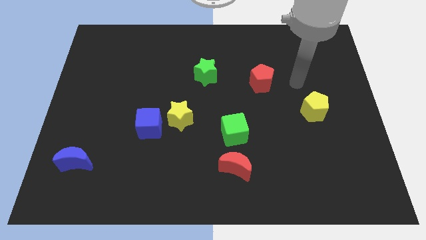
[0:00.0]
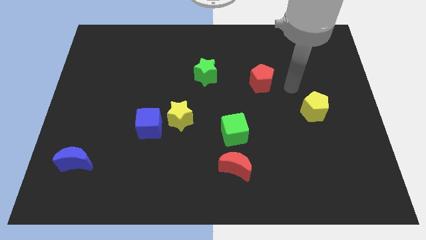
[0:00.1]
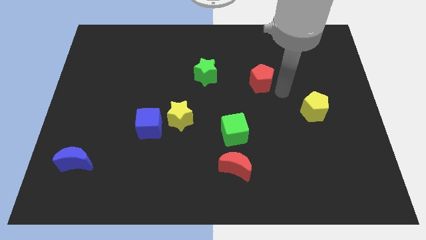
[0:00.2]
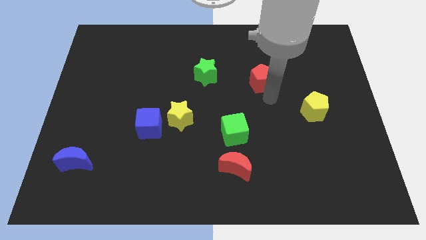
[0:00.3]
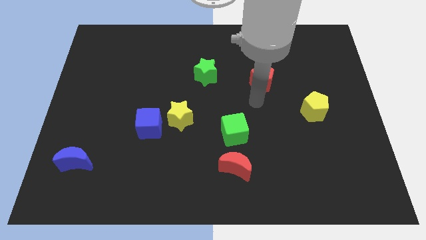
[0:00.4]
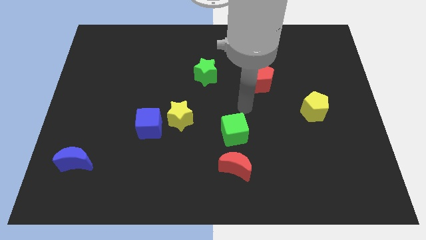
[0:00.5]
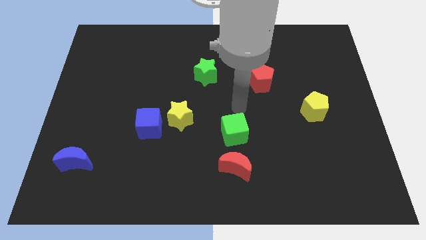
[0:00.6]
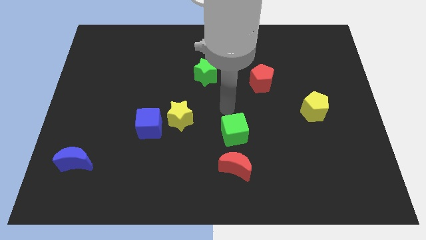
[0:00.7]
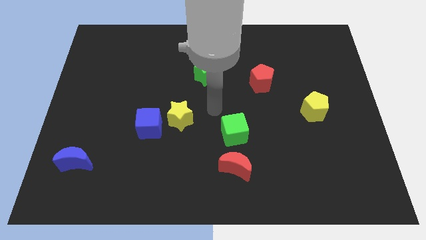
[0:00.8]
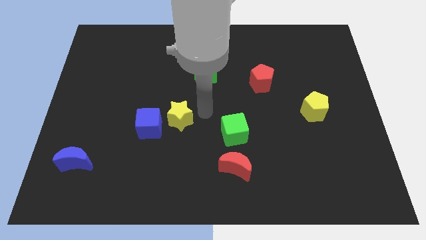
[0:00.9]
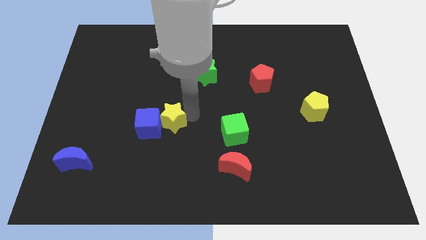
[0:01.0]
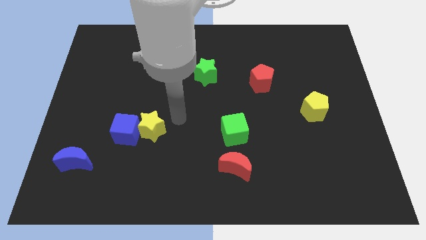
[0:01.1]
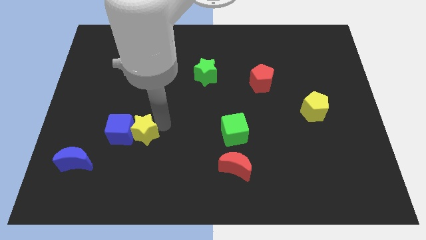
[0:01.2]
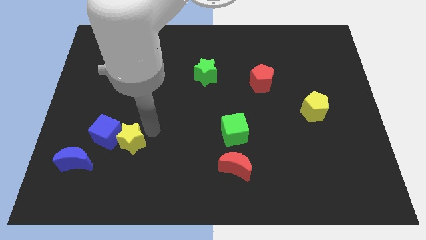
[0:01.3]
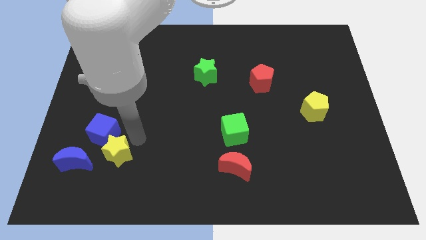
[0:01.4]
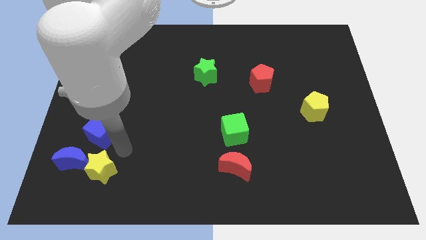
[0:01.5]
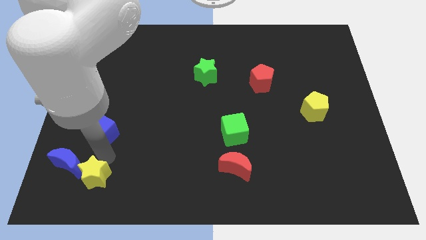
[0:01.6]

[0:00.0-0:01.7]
pull the blue cube apart from the yellow star

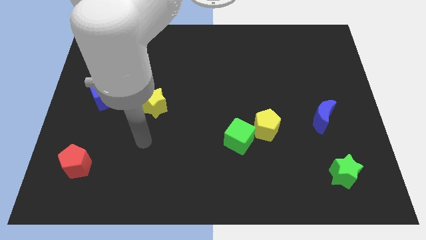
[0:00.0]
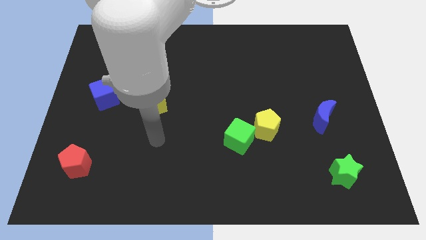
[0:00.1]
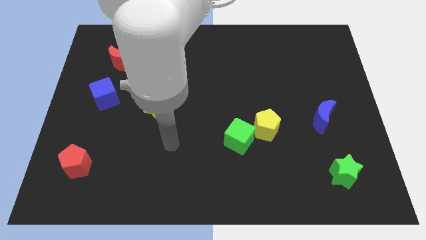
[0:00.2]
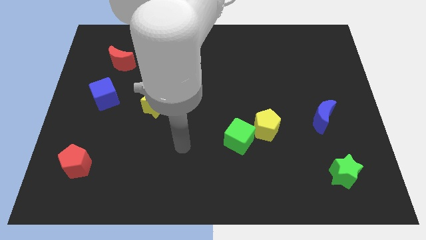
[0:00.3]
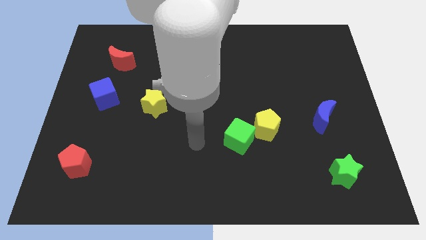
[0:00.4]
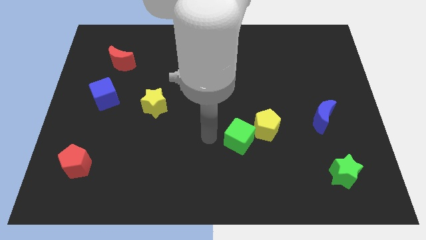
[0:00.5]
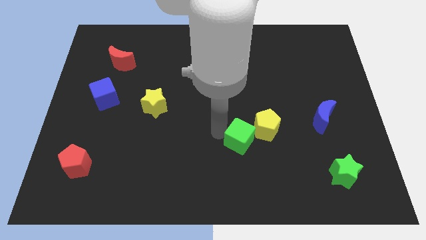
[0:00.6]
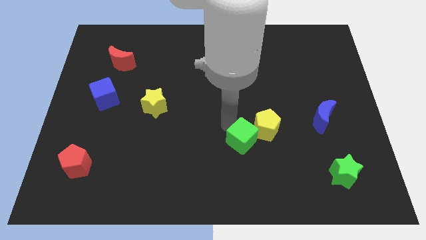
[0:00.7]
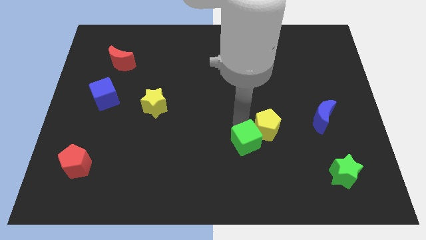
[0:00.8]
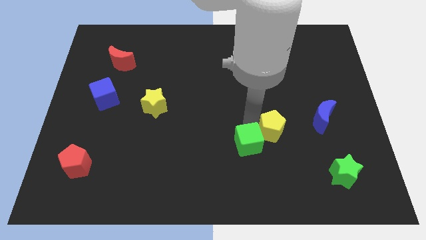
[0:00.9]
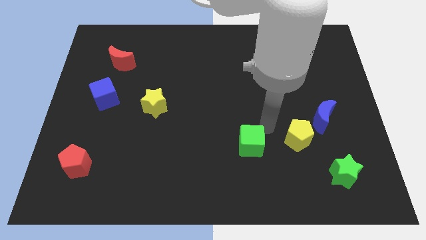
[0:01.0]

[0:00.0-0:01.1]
separate the green cube from the yellow pentagon

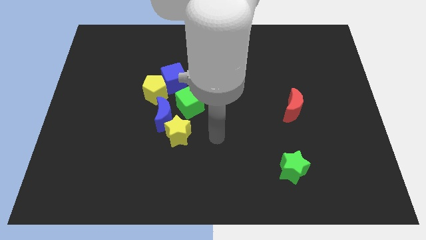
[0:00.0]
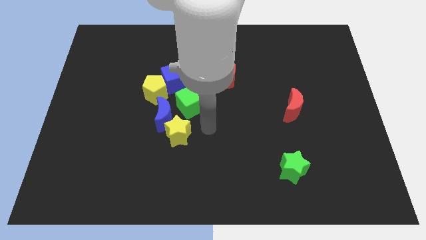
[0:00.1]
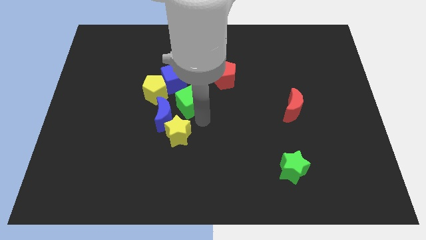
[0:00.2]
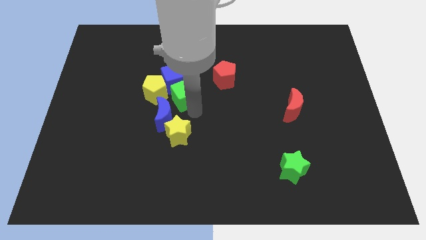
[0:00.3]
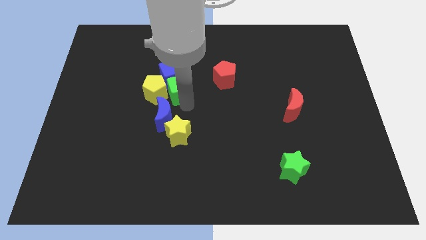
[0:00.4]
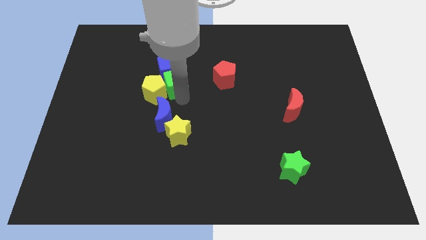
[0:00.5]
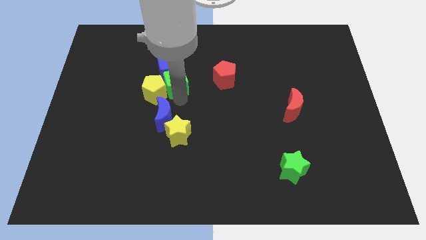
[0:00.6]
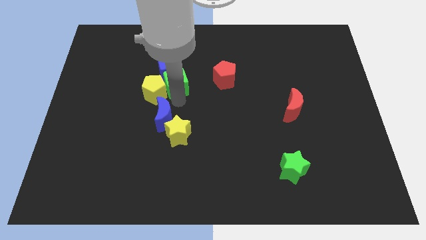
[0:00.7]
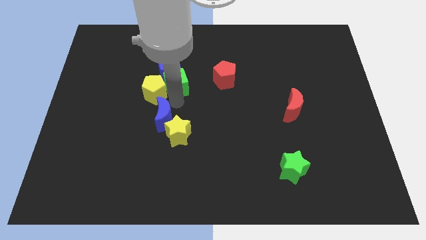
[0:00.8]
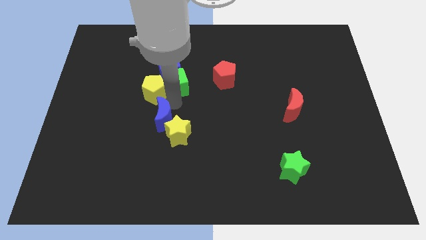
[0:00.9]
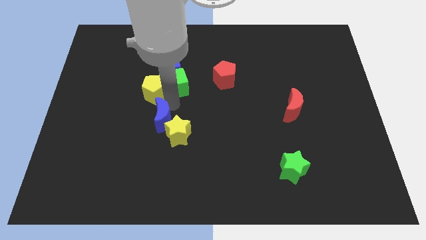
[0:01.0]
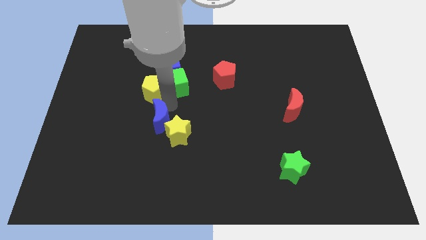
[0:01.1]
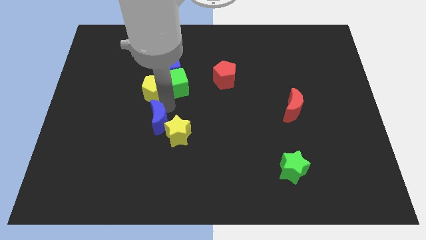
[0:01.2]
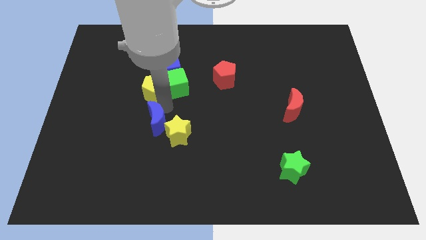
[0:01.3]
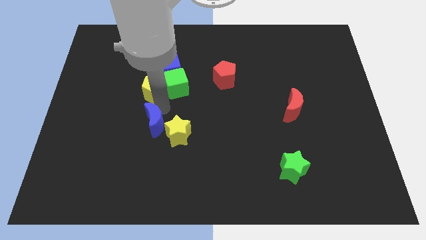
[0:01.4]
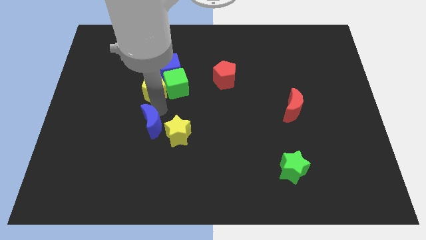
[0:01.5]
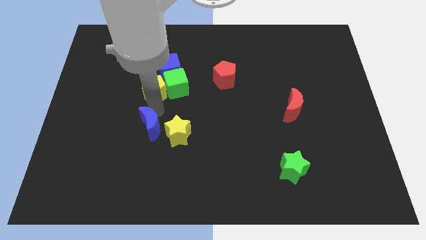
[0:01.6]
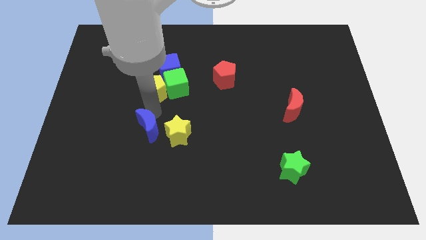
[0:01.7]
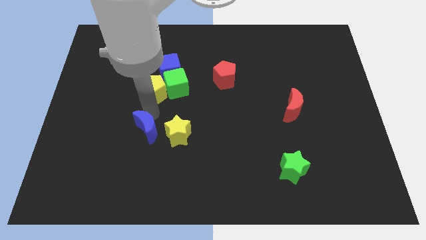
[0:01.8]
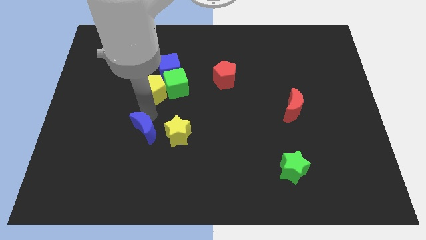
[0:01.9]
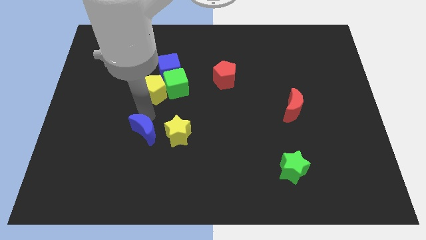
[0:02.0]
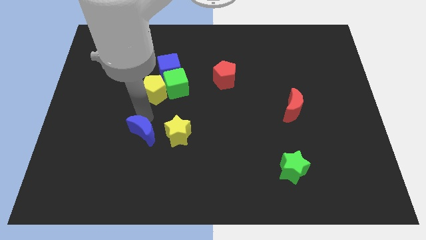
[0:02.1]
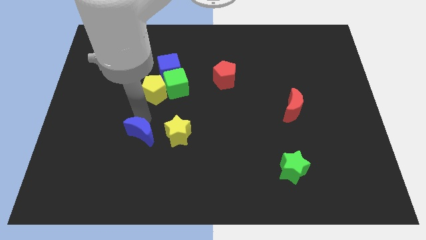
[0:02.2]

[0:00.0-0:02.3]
move the blue moon away from the yellow star, green cube, and yellow pentagon

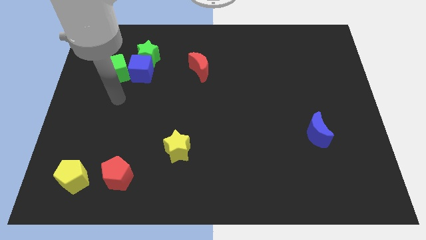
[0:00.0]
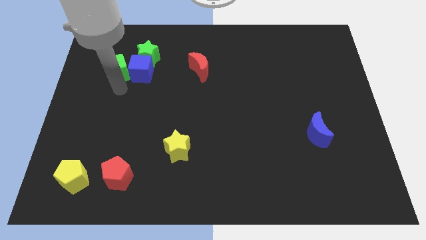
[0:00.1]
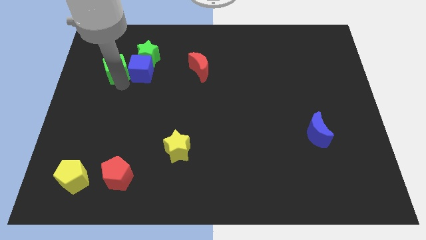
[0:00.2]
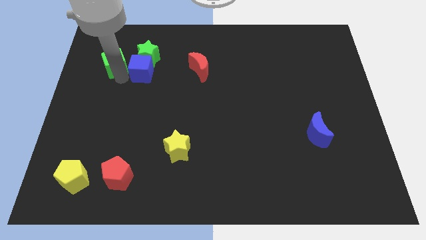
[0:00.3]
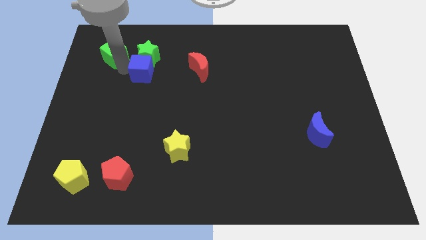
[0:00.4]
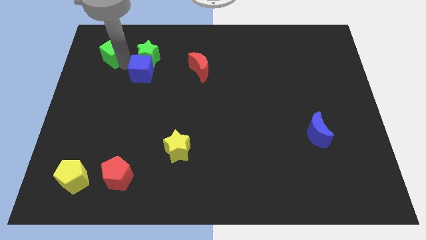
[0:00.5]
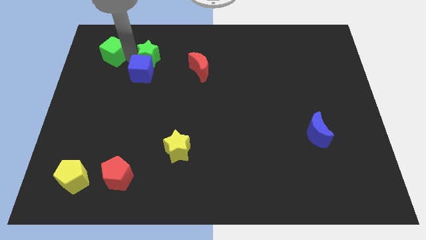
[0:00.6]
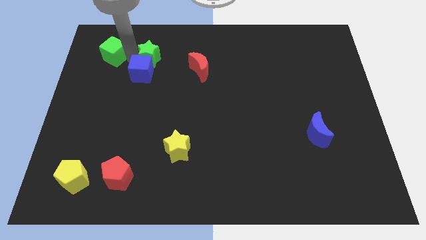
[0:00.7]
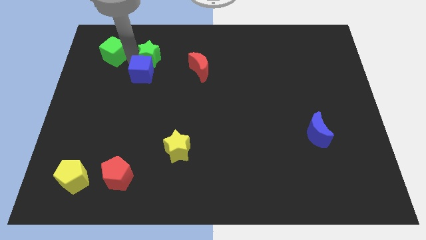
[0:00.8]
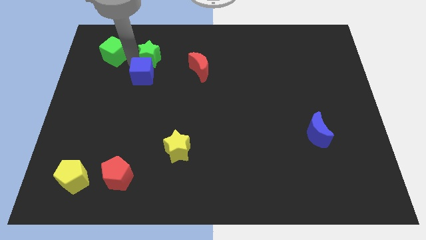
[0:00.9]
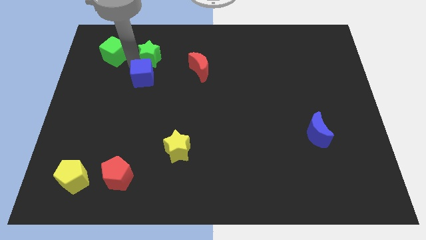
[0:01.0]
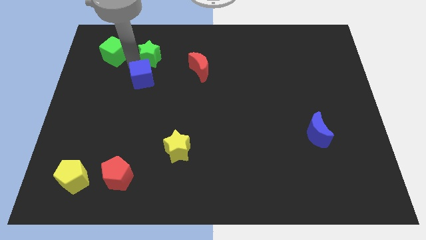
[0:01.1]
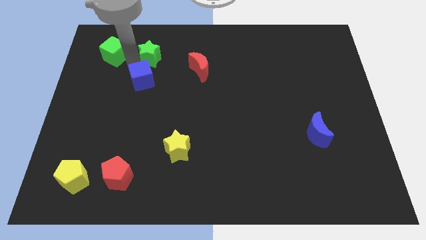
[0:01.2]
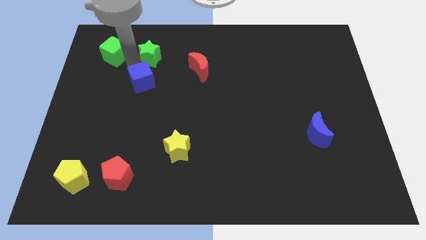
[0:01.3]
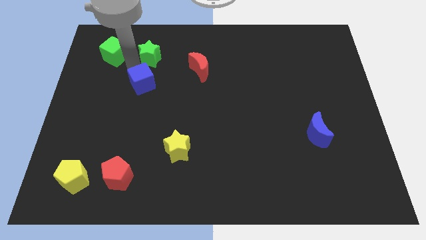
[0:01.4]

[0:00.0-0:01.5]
pull the blue cube apart from the green star and green cube

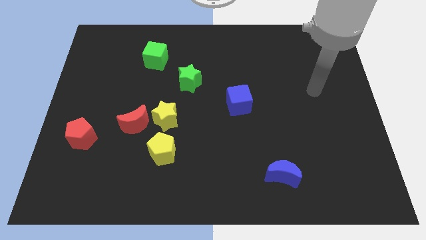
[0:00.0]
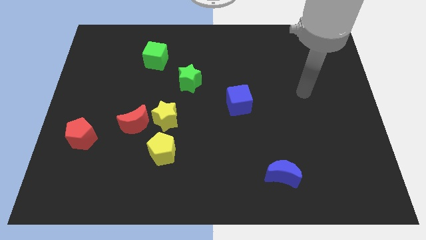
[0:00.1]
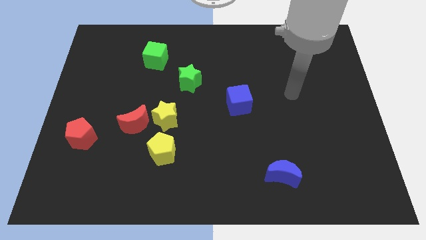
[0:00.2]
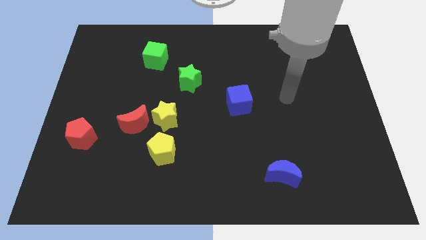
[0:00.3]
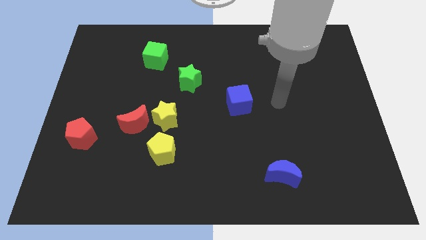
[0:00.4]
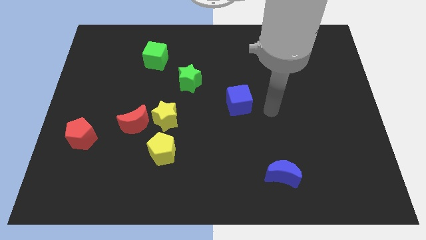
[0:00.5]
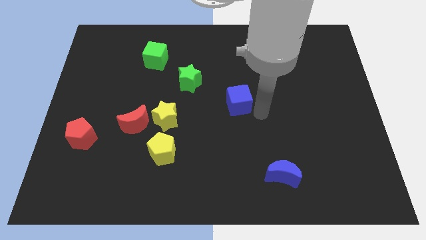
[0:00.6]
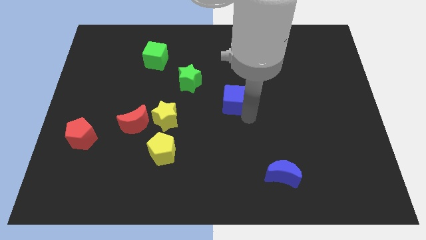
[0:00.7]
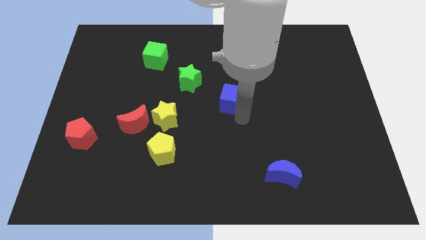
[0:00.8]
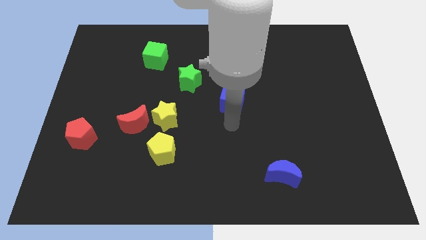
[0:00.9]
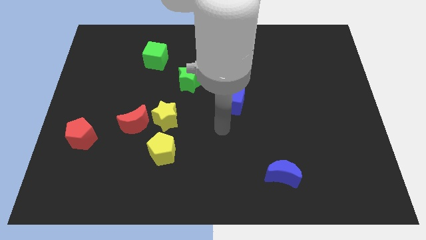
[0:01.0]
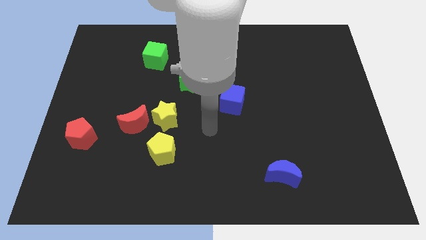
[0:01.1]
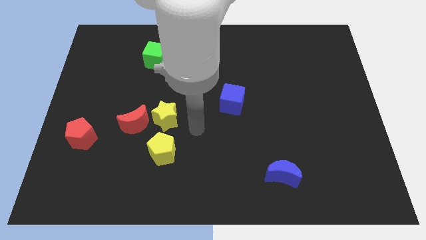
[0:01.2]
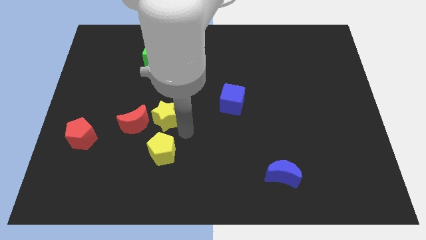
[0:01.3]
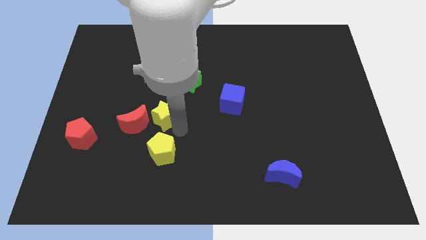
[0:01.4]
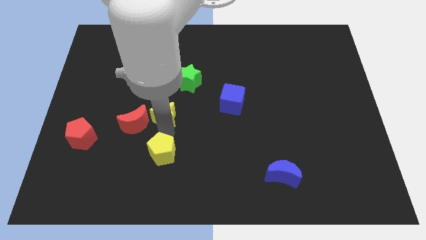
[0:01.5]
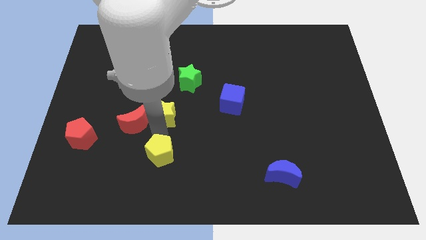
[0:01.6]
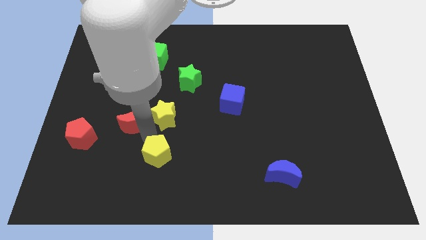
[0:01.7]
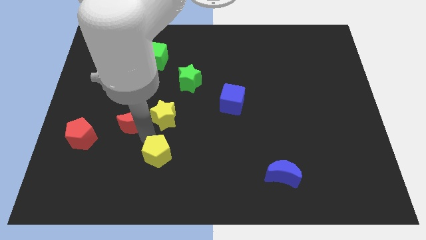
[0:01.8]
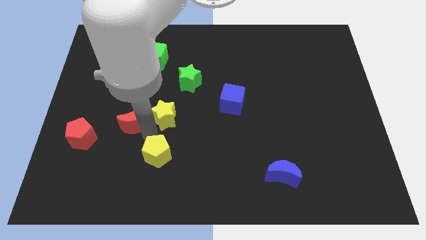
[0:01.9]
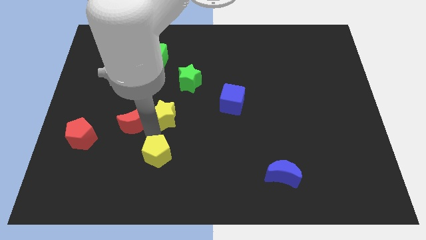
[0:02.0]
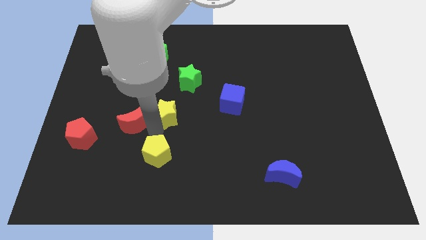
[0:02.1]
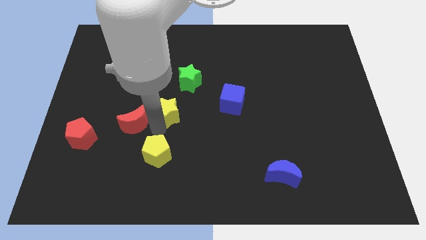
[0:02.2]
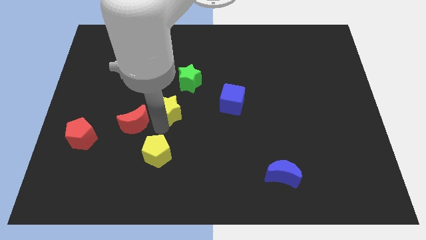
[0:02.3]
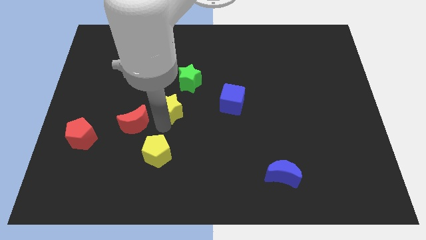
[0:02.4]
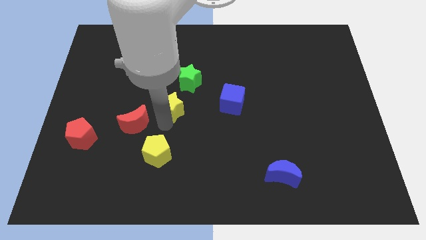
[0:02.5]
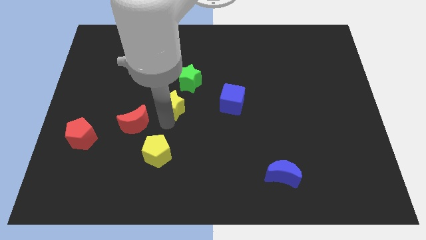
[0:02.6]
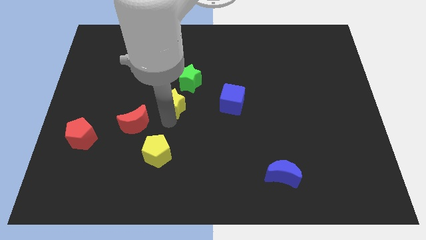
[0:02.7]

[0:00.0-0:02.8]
move the yellow star away from the red moon and yellow pentagon
